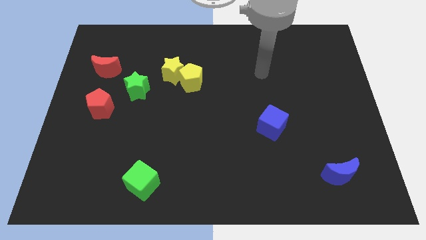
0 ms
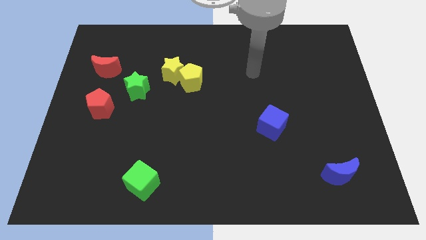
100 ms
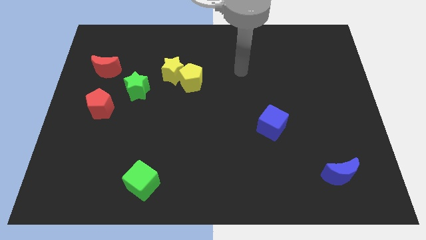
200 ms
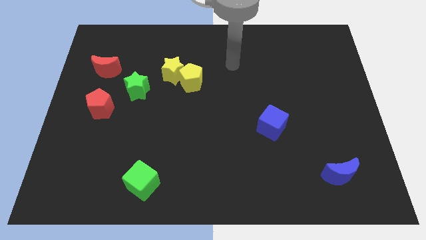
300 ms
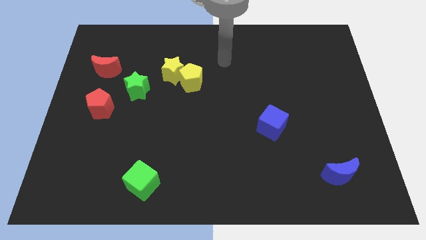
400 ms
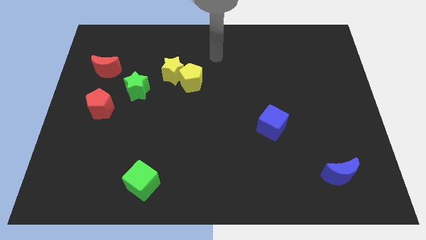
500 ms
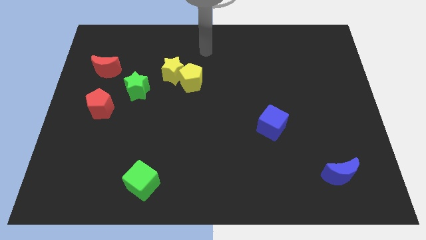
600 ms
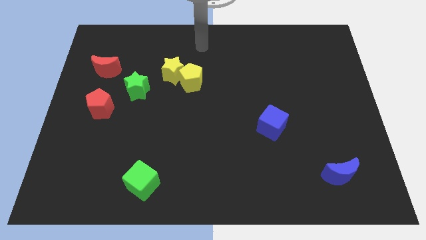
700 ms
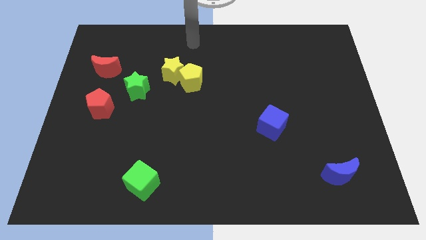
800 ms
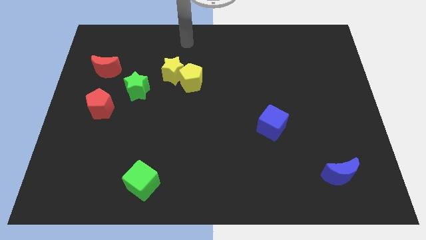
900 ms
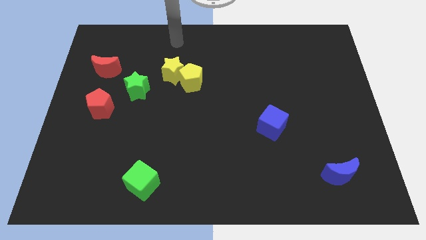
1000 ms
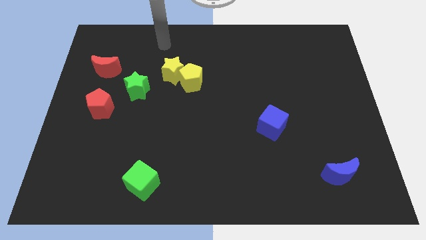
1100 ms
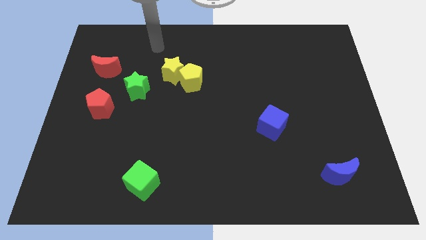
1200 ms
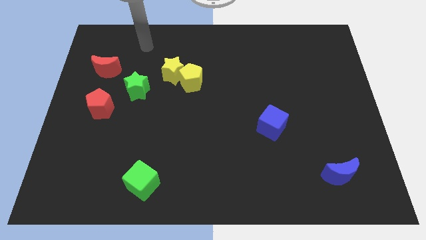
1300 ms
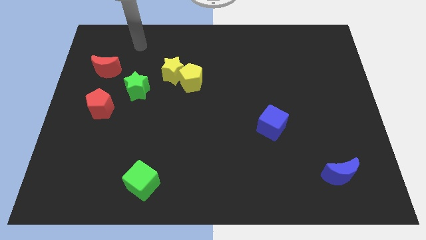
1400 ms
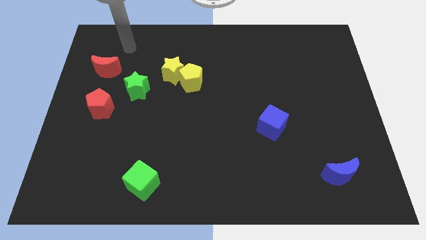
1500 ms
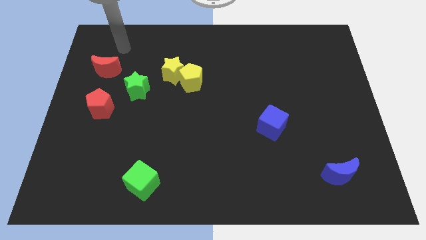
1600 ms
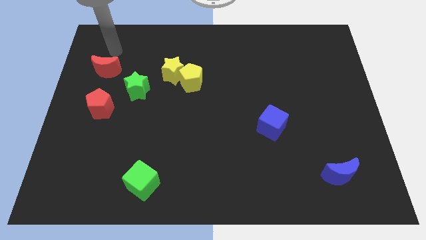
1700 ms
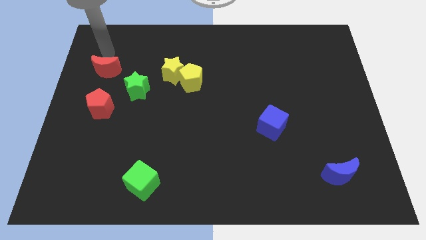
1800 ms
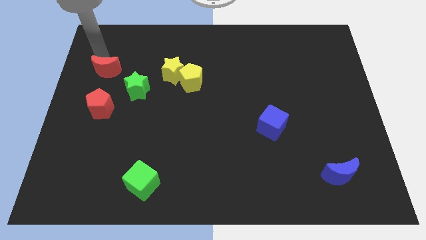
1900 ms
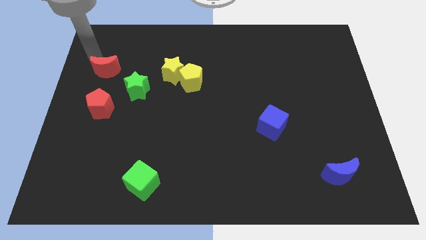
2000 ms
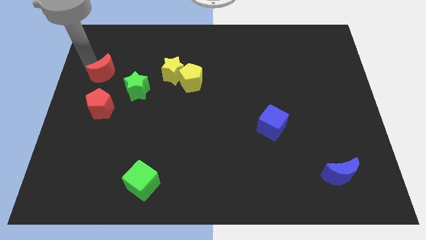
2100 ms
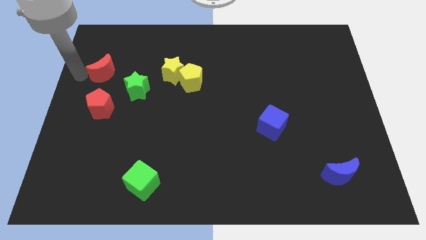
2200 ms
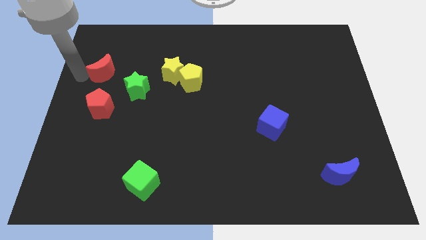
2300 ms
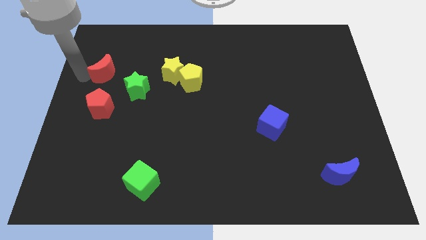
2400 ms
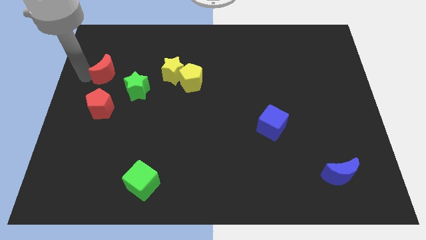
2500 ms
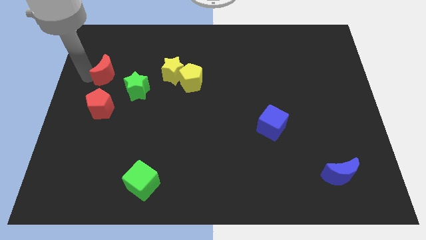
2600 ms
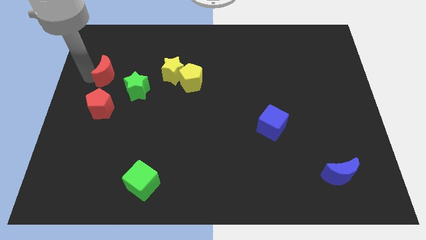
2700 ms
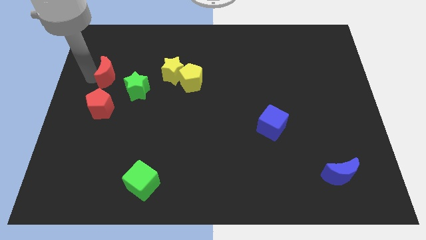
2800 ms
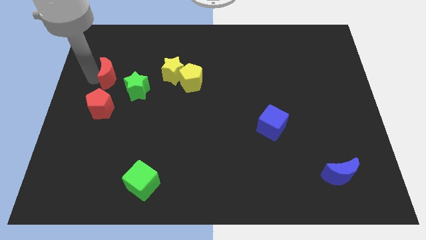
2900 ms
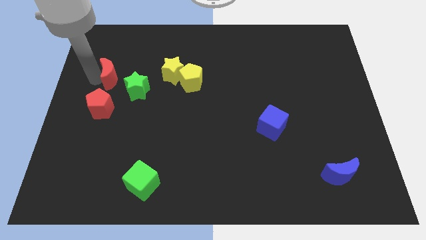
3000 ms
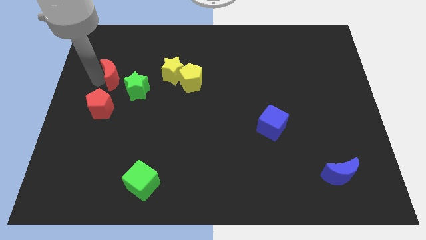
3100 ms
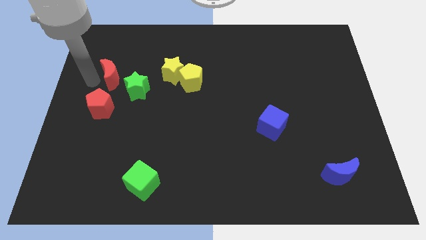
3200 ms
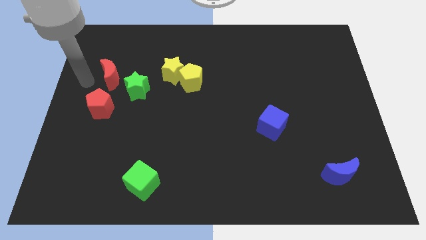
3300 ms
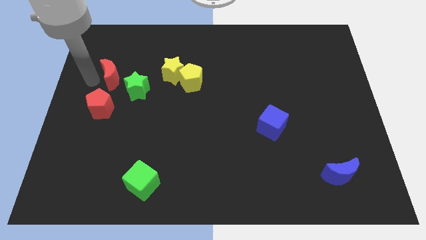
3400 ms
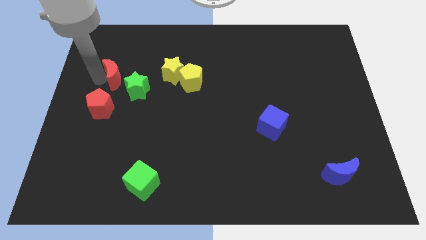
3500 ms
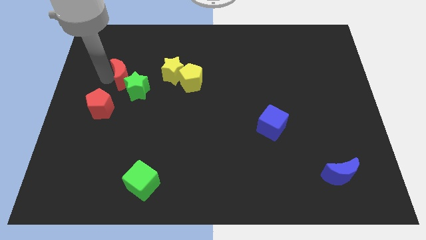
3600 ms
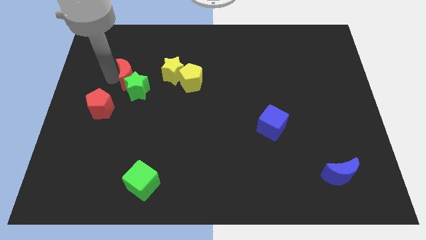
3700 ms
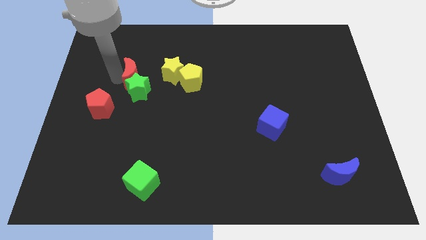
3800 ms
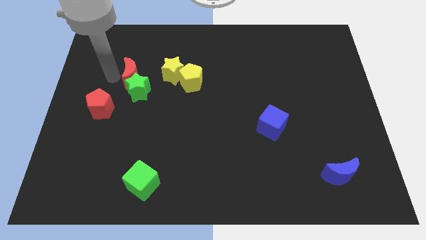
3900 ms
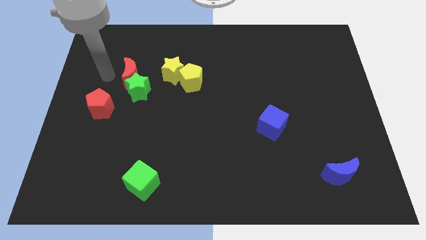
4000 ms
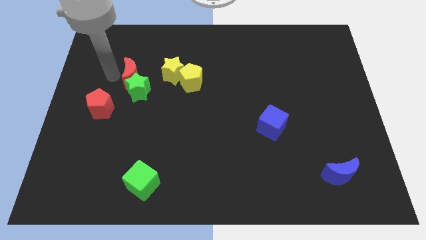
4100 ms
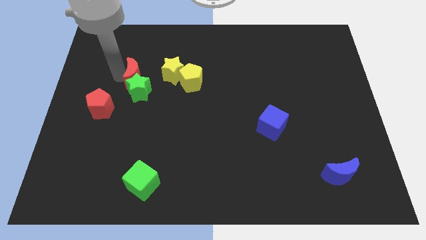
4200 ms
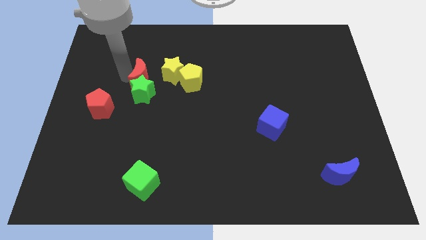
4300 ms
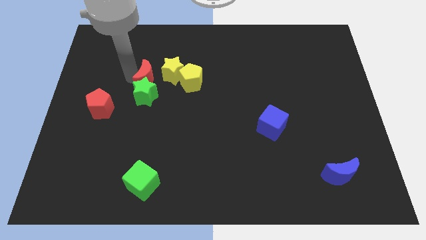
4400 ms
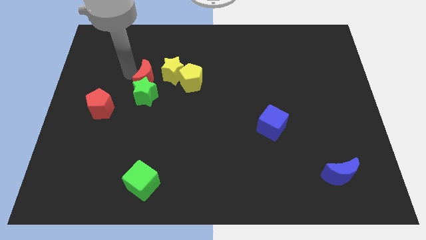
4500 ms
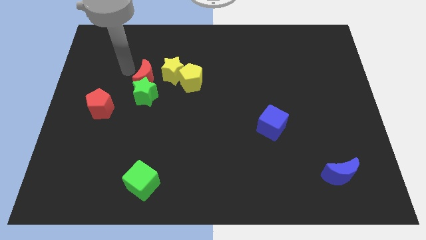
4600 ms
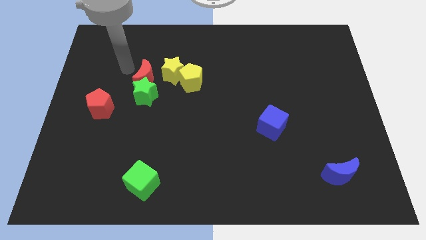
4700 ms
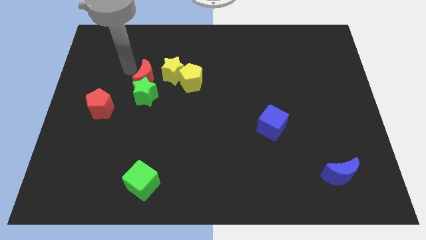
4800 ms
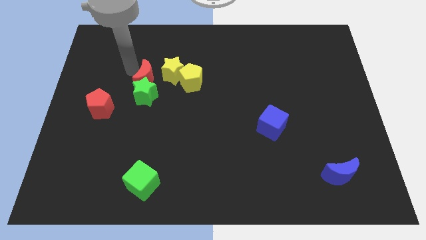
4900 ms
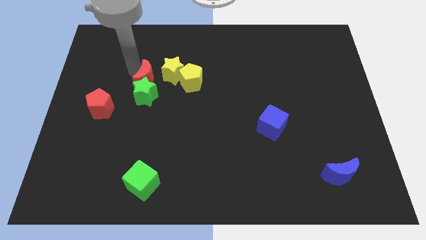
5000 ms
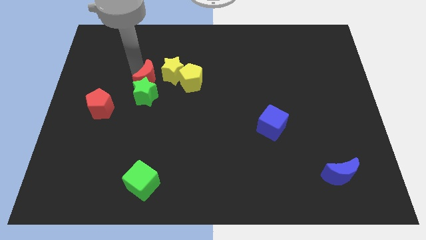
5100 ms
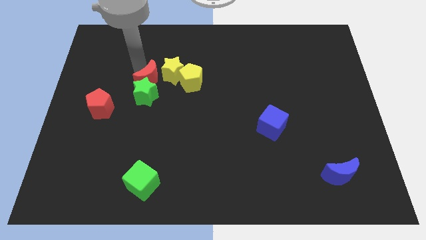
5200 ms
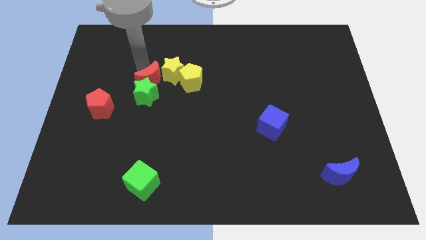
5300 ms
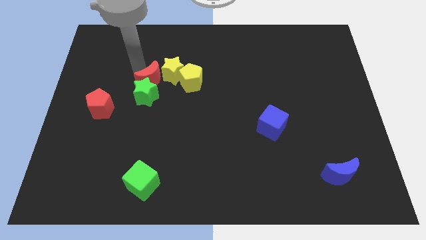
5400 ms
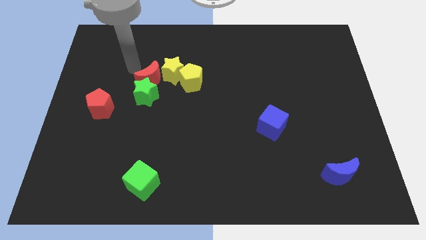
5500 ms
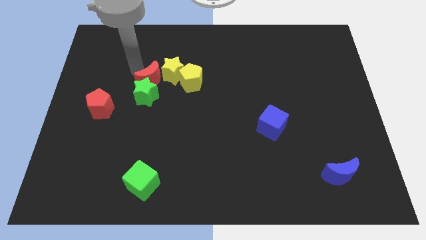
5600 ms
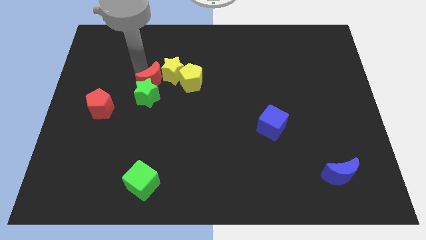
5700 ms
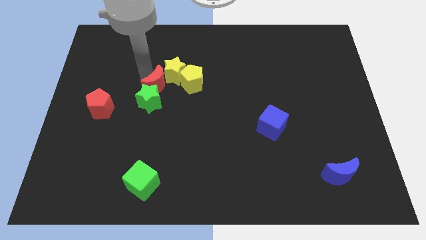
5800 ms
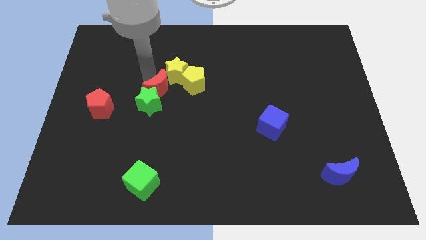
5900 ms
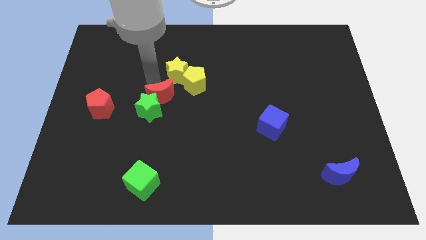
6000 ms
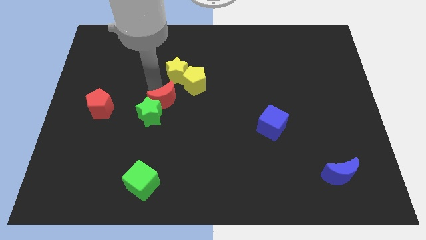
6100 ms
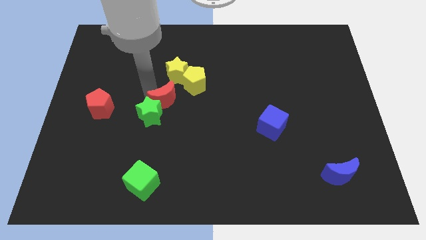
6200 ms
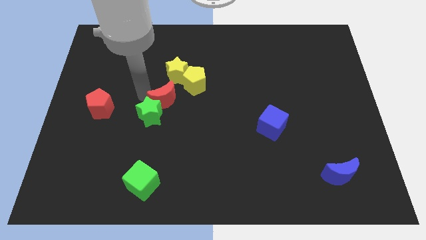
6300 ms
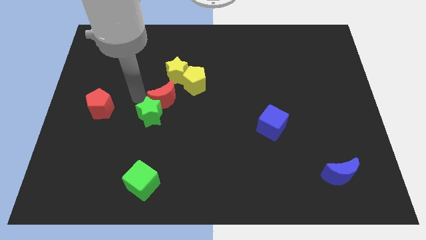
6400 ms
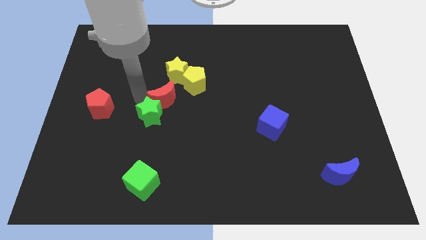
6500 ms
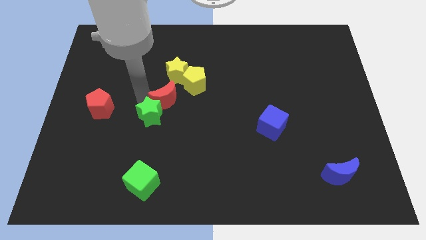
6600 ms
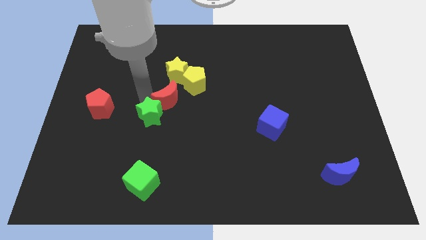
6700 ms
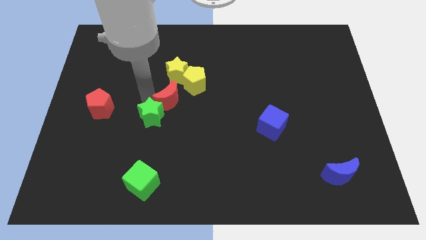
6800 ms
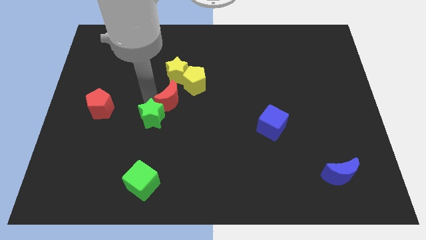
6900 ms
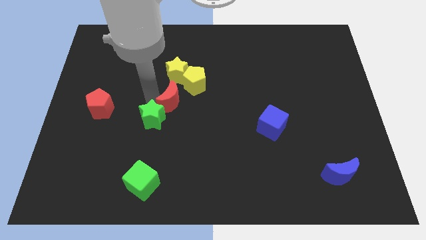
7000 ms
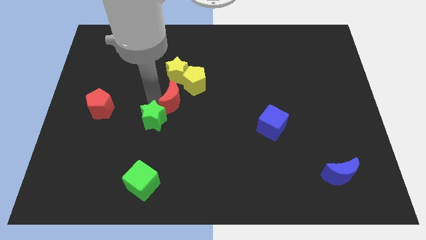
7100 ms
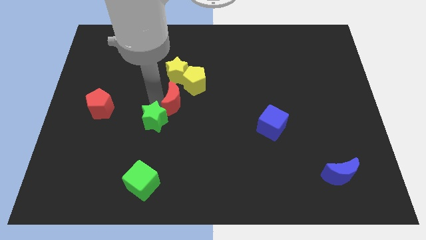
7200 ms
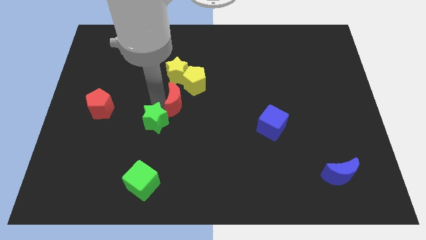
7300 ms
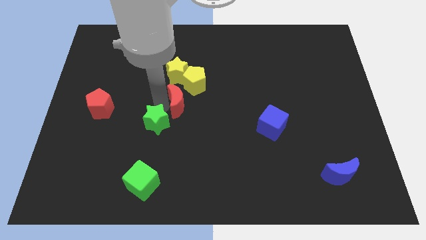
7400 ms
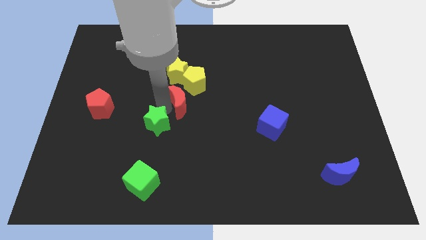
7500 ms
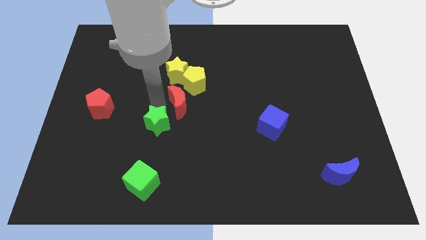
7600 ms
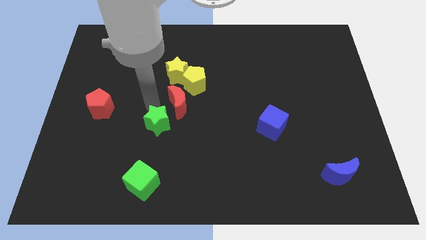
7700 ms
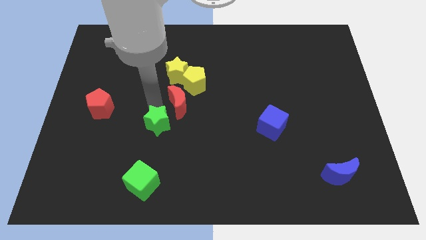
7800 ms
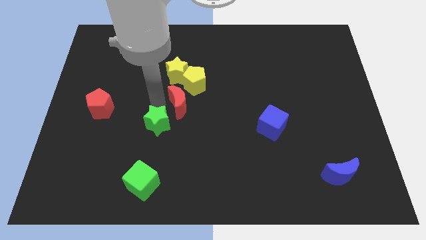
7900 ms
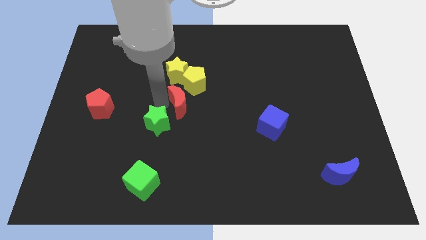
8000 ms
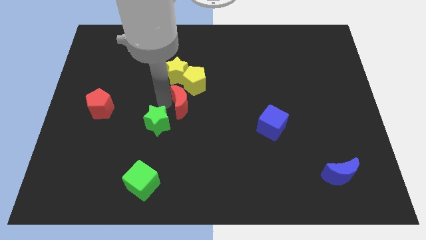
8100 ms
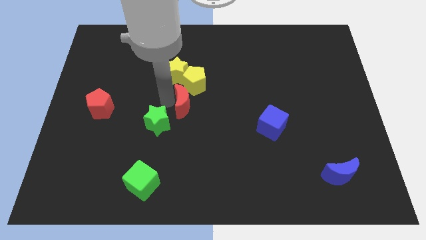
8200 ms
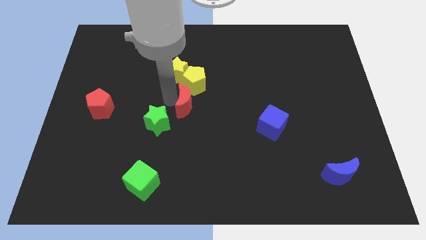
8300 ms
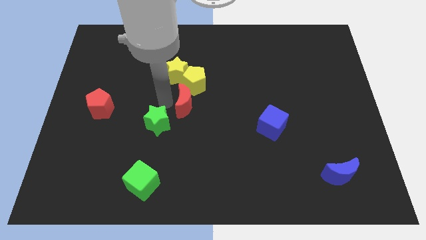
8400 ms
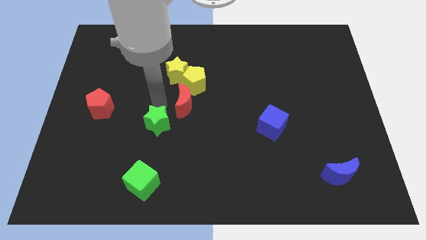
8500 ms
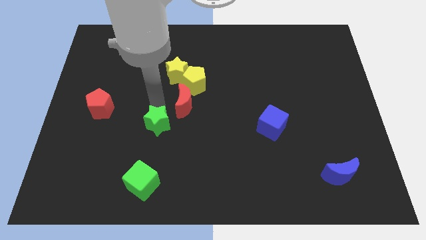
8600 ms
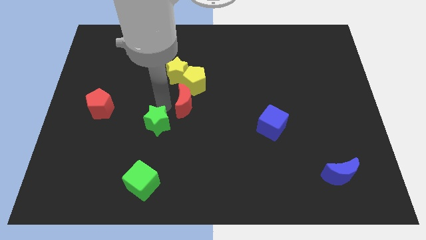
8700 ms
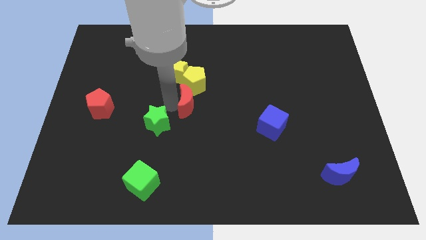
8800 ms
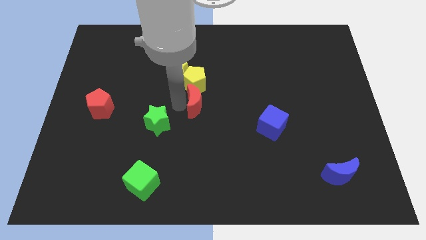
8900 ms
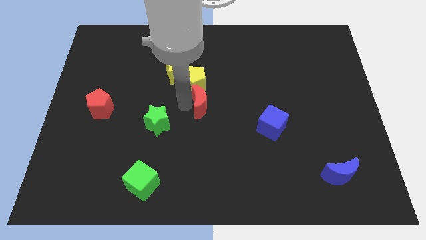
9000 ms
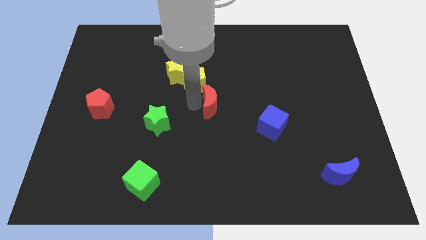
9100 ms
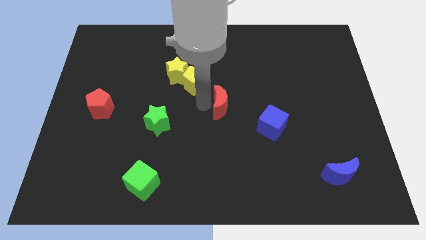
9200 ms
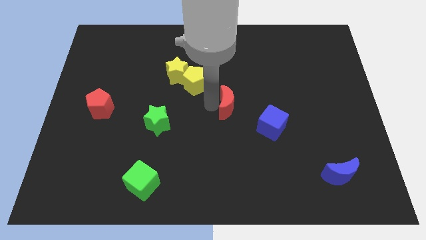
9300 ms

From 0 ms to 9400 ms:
push the red moon to the top left side of the blue cube
